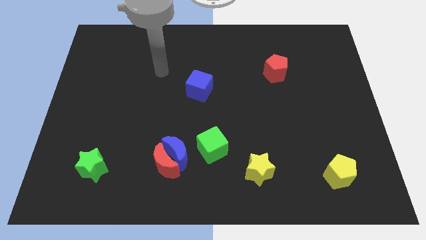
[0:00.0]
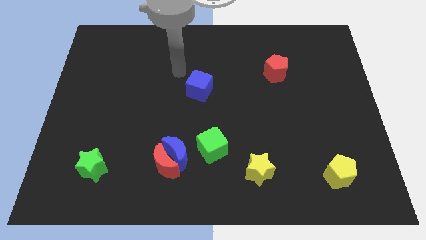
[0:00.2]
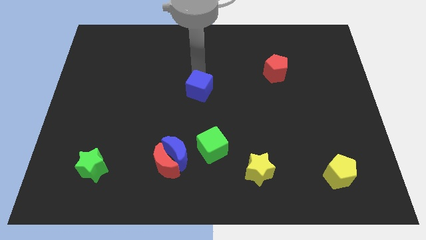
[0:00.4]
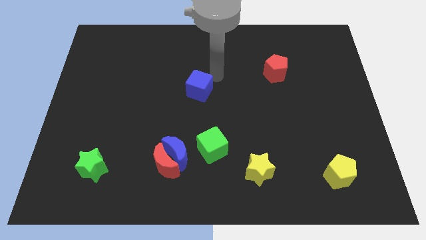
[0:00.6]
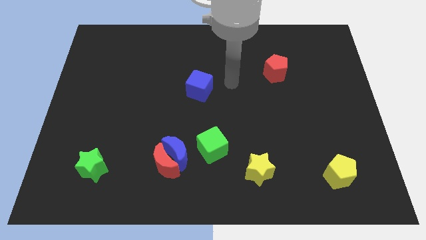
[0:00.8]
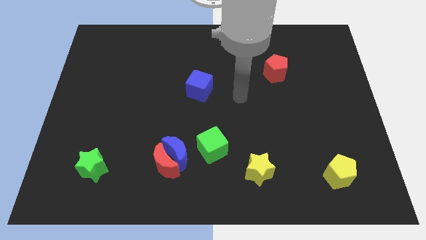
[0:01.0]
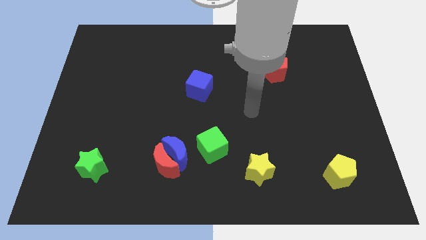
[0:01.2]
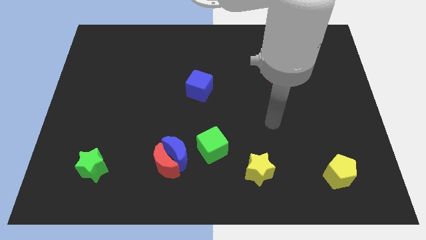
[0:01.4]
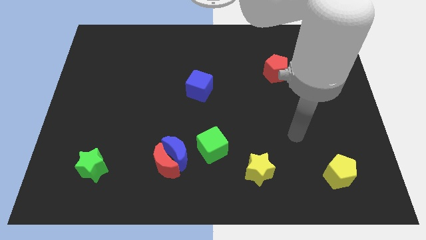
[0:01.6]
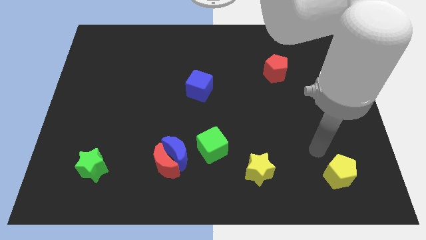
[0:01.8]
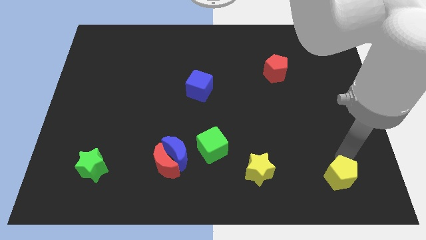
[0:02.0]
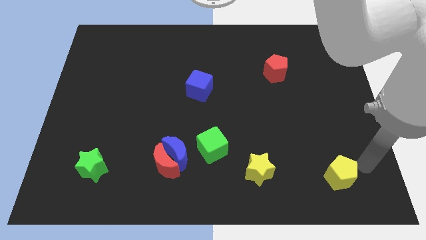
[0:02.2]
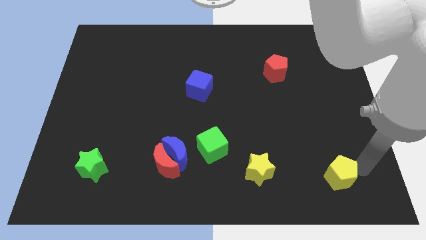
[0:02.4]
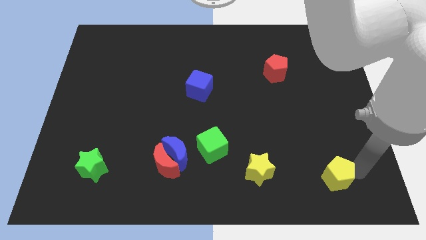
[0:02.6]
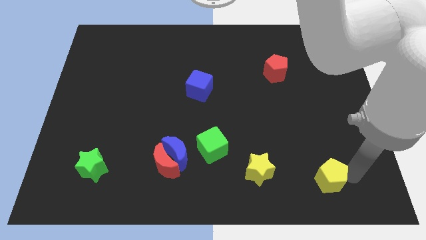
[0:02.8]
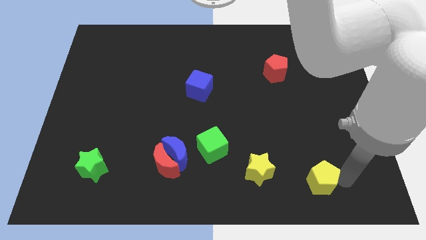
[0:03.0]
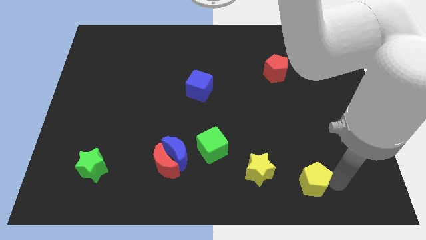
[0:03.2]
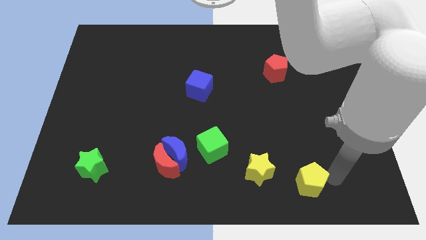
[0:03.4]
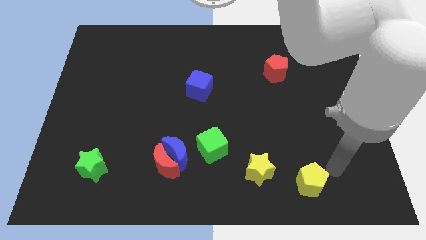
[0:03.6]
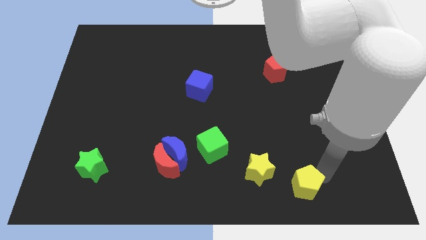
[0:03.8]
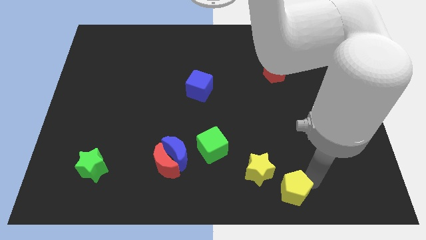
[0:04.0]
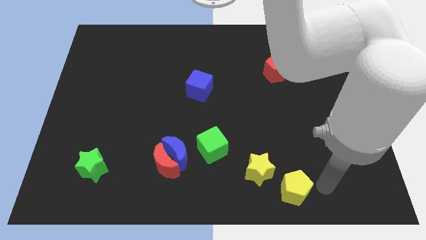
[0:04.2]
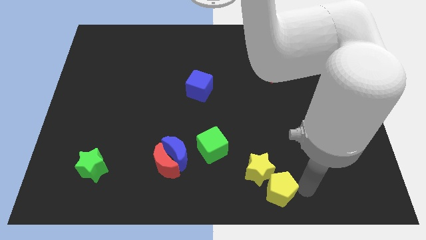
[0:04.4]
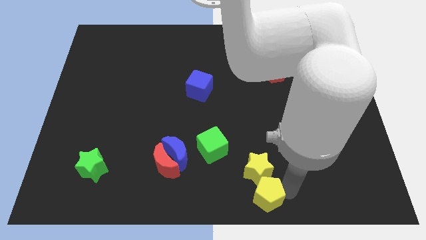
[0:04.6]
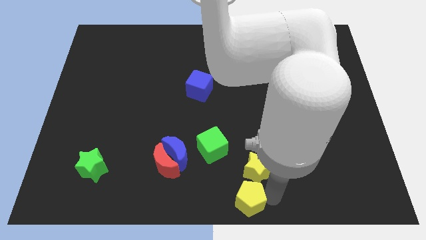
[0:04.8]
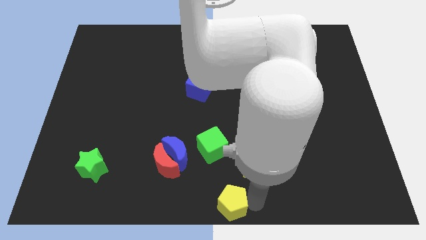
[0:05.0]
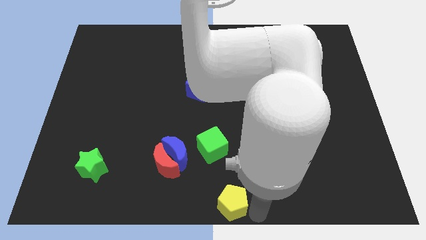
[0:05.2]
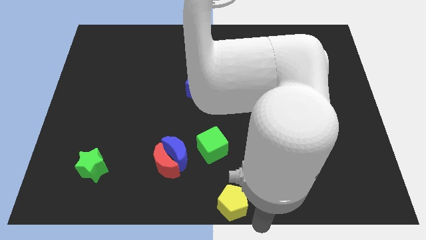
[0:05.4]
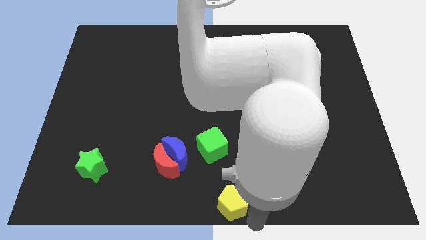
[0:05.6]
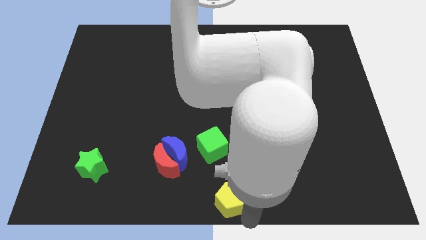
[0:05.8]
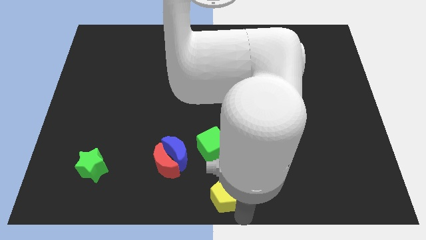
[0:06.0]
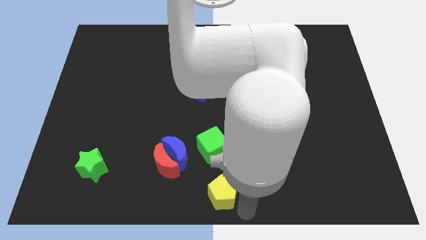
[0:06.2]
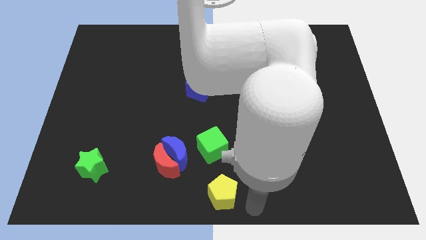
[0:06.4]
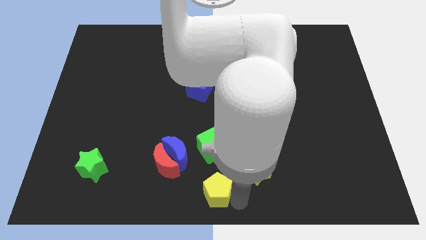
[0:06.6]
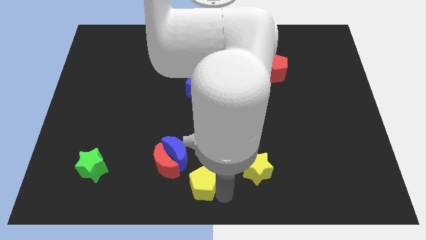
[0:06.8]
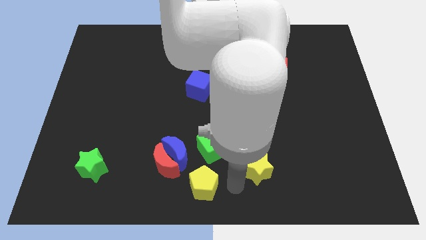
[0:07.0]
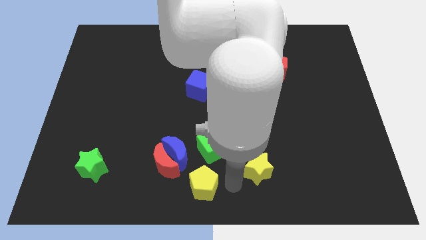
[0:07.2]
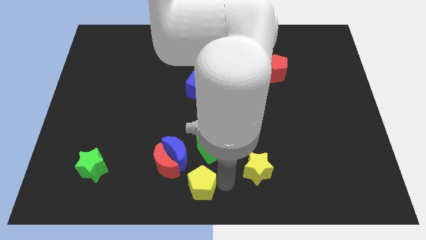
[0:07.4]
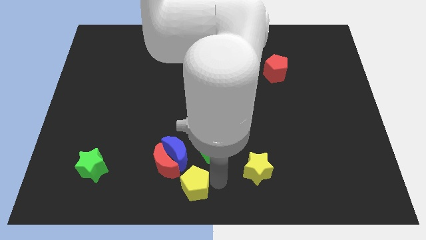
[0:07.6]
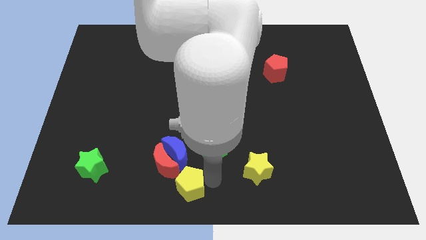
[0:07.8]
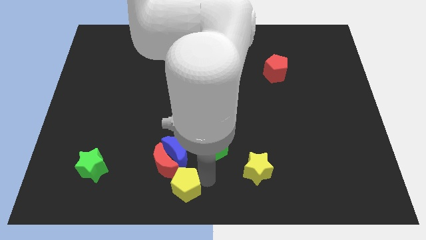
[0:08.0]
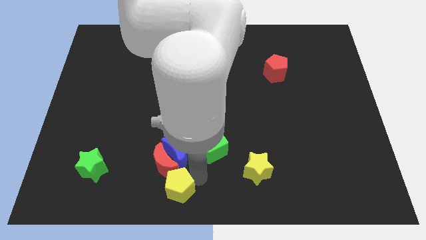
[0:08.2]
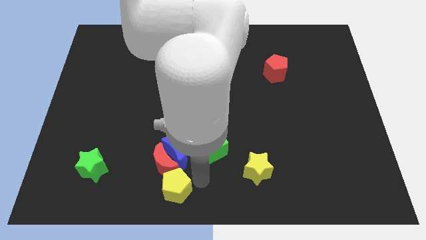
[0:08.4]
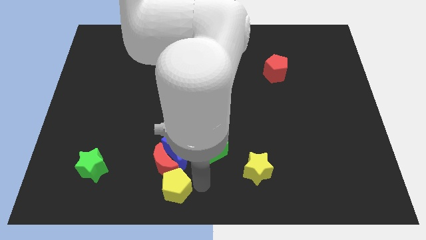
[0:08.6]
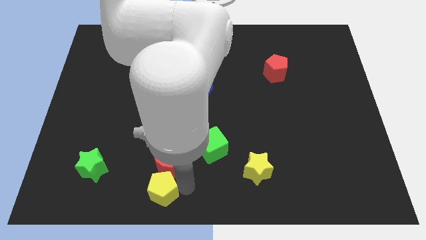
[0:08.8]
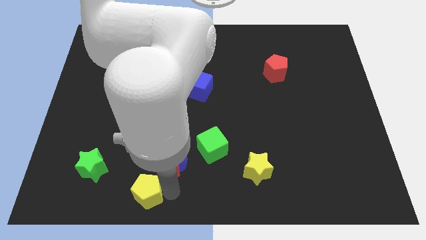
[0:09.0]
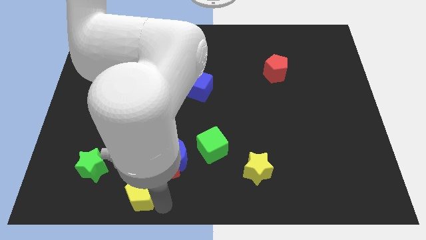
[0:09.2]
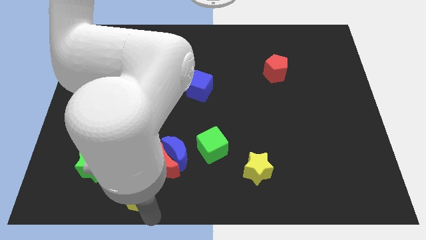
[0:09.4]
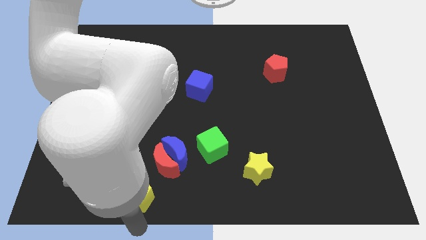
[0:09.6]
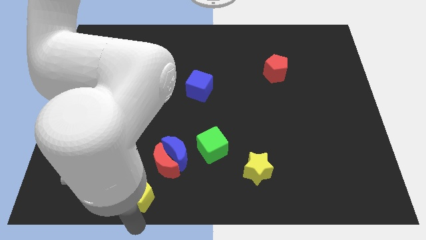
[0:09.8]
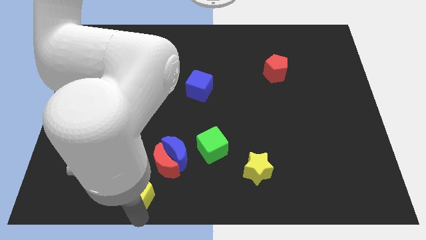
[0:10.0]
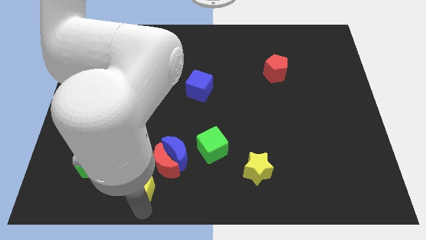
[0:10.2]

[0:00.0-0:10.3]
move the yellow pentagon right of the green star

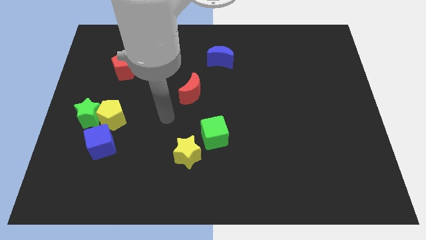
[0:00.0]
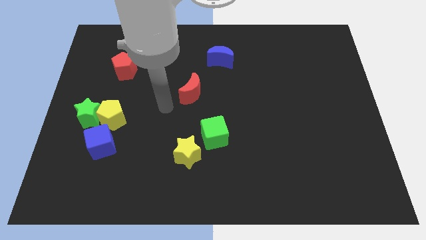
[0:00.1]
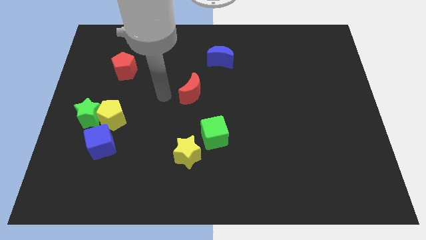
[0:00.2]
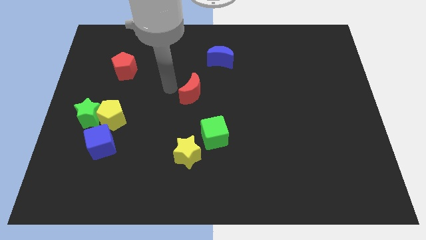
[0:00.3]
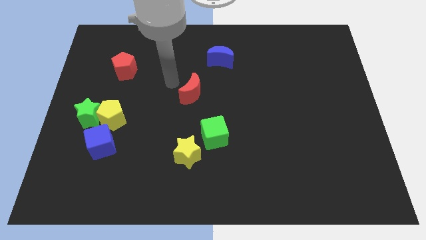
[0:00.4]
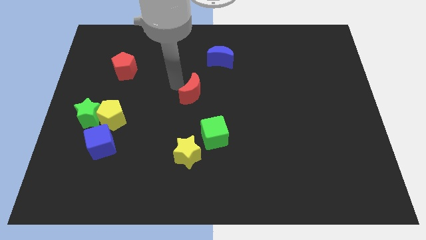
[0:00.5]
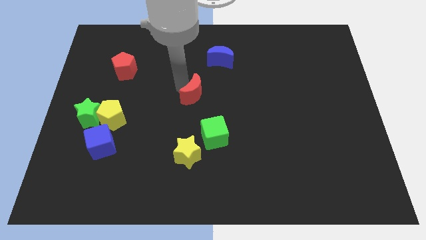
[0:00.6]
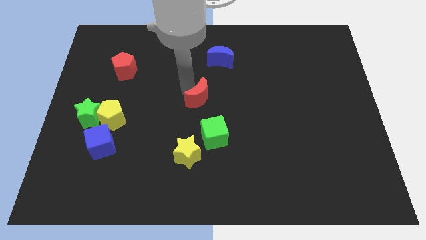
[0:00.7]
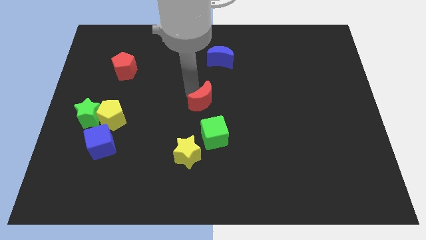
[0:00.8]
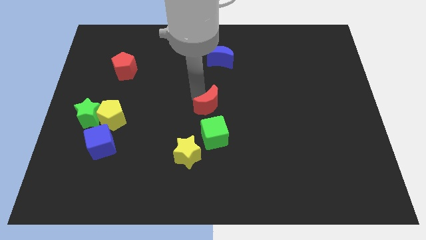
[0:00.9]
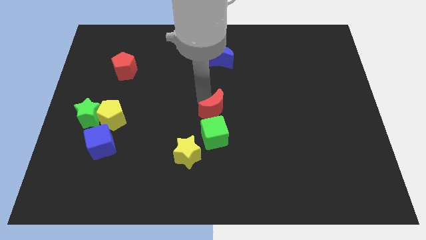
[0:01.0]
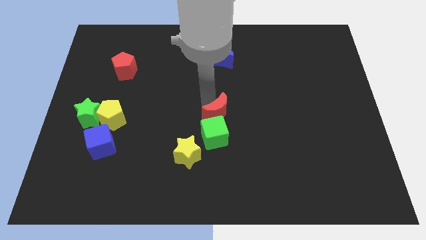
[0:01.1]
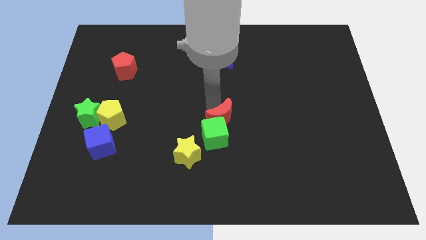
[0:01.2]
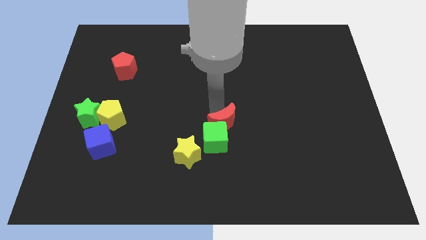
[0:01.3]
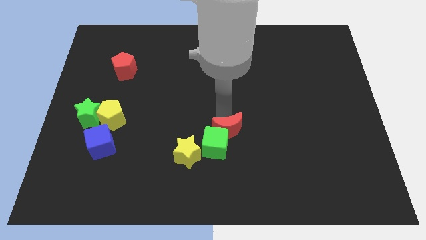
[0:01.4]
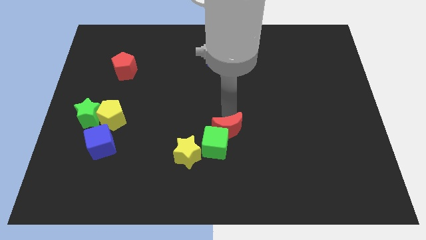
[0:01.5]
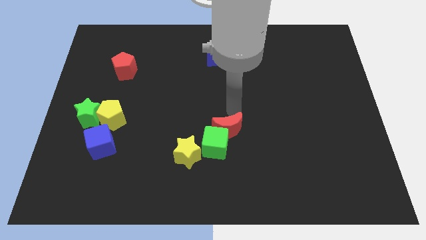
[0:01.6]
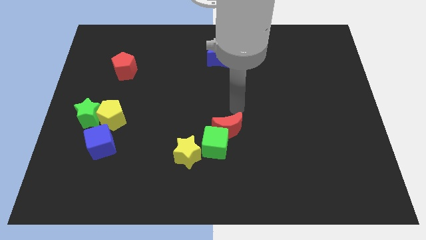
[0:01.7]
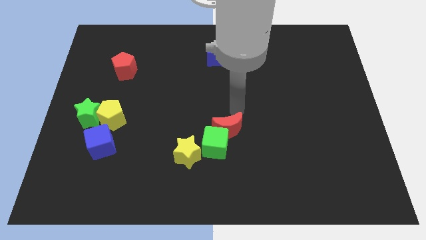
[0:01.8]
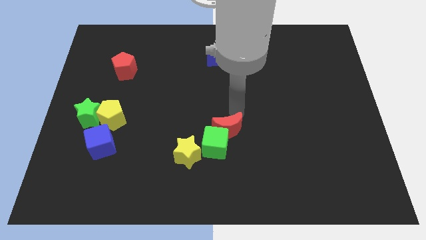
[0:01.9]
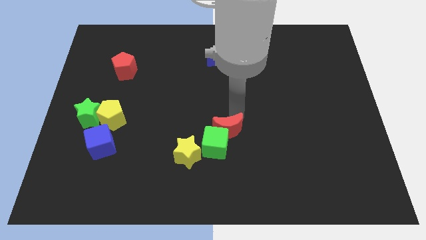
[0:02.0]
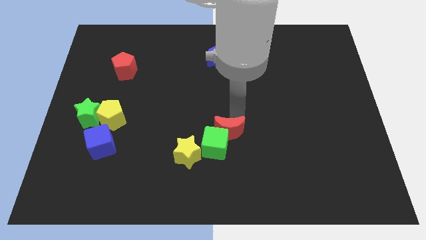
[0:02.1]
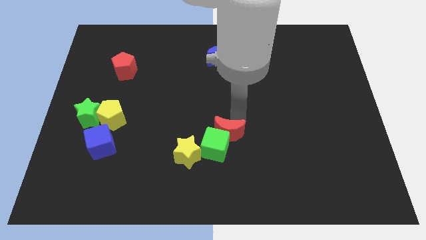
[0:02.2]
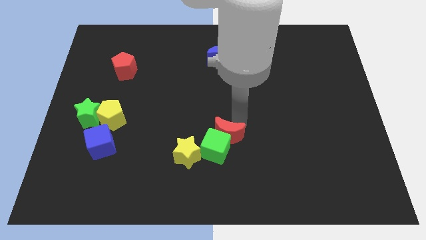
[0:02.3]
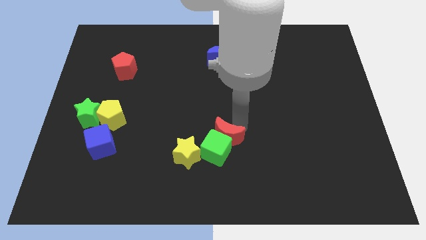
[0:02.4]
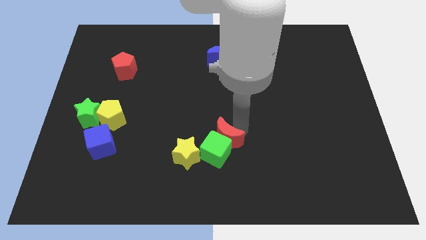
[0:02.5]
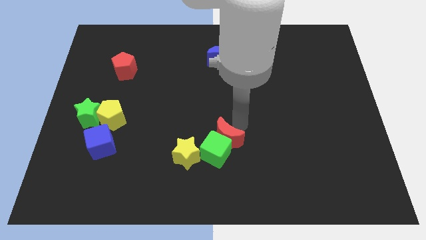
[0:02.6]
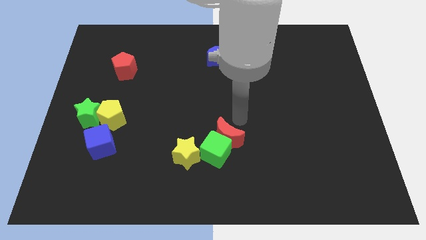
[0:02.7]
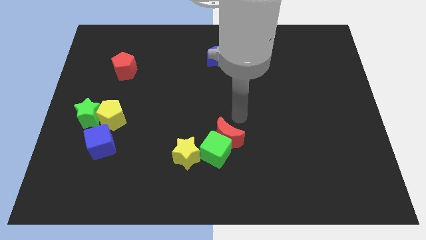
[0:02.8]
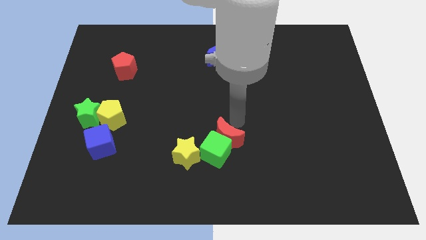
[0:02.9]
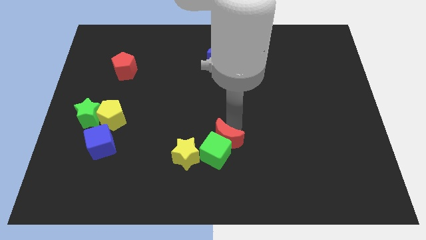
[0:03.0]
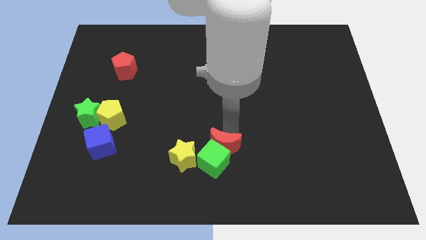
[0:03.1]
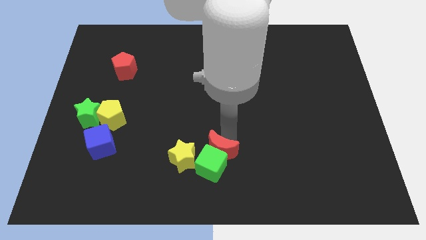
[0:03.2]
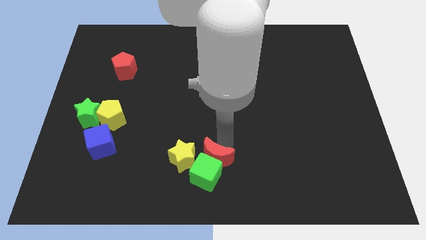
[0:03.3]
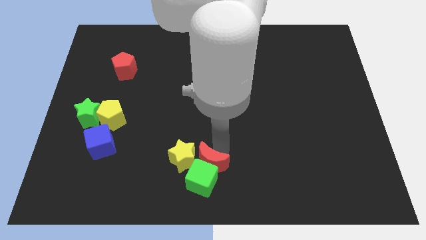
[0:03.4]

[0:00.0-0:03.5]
slide the red moon to the bottom right side of the yellow star
